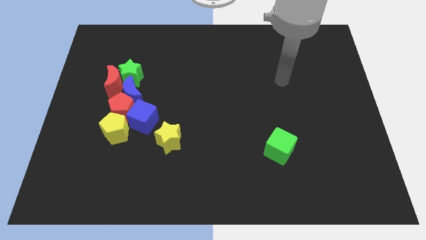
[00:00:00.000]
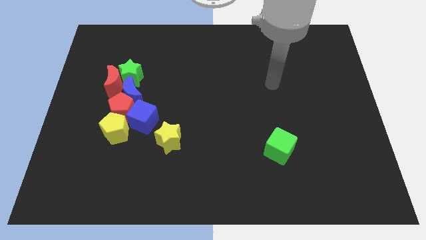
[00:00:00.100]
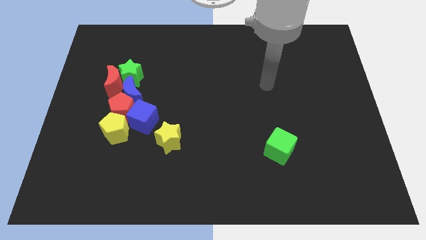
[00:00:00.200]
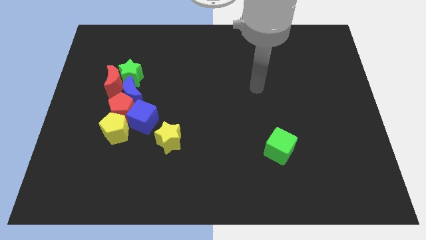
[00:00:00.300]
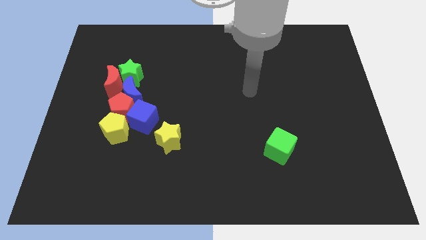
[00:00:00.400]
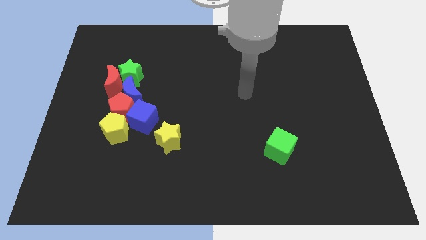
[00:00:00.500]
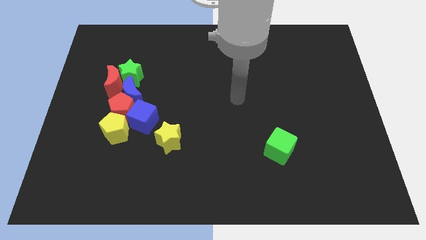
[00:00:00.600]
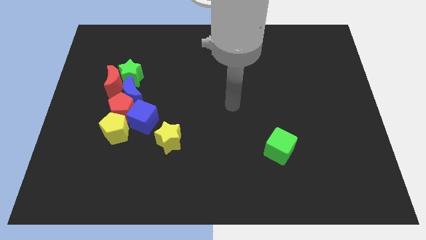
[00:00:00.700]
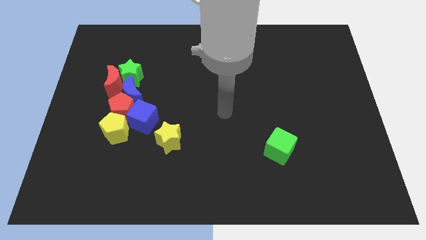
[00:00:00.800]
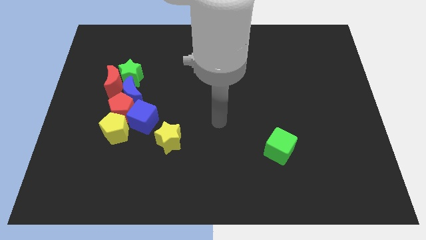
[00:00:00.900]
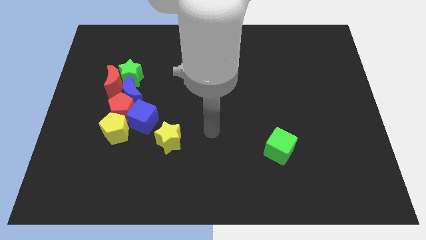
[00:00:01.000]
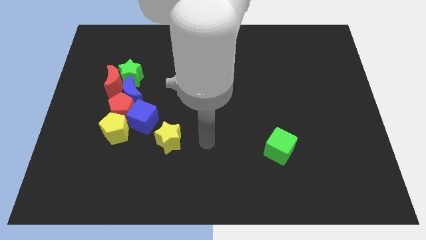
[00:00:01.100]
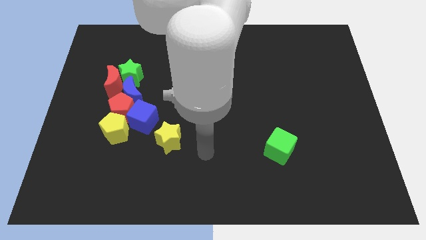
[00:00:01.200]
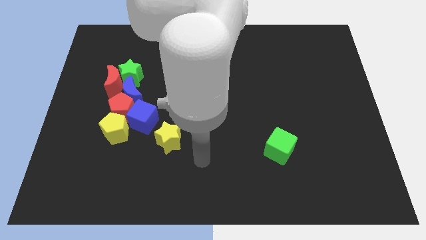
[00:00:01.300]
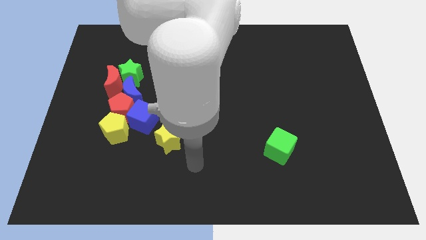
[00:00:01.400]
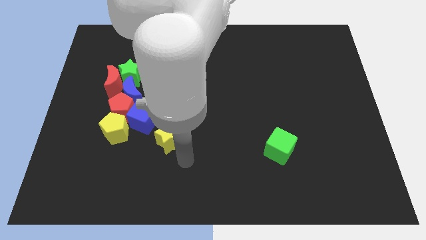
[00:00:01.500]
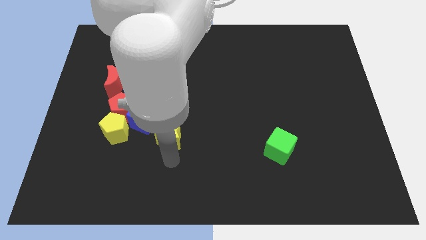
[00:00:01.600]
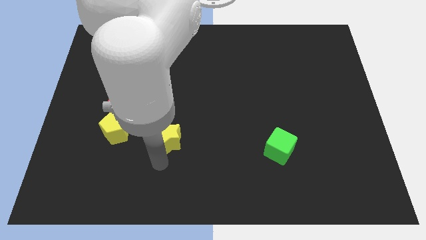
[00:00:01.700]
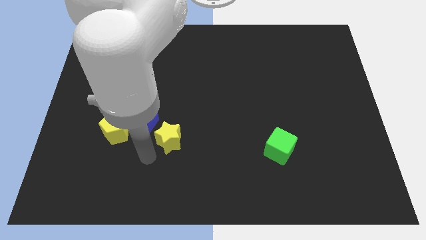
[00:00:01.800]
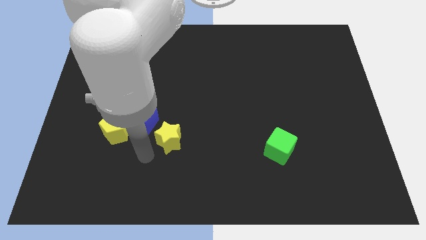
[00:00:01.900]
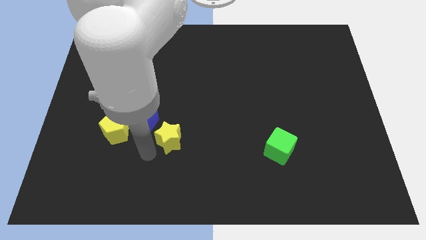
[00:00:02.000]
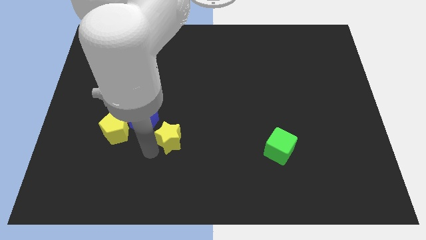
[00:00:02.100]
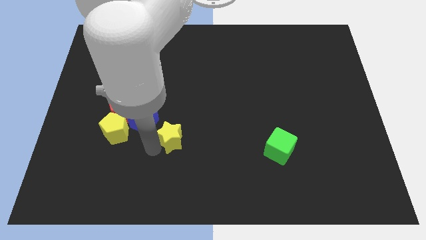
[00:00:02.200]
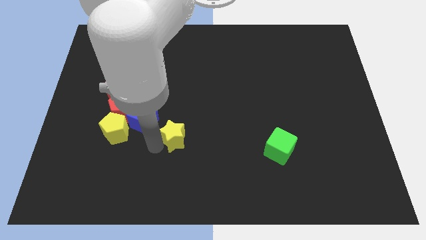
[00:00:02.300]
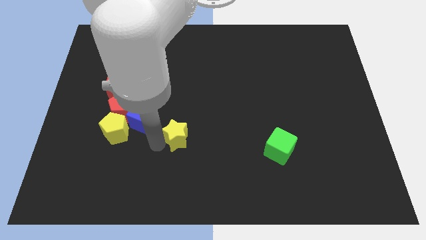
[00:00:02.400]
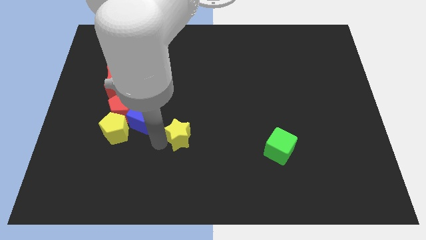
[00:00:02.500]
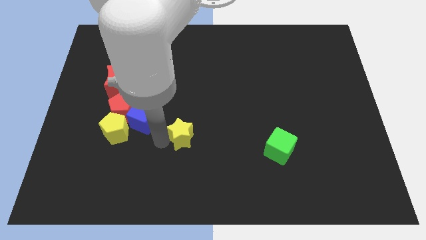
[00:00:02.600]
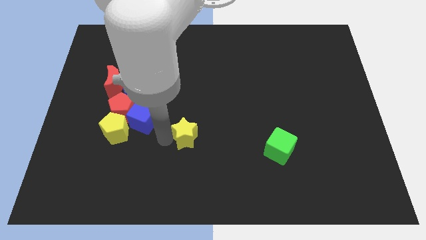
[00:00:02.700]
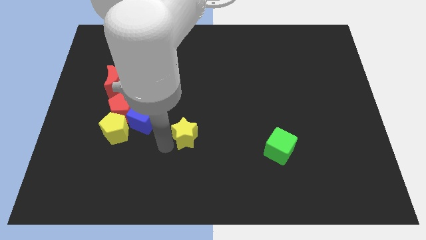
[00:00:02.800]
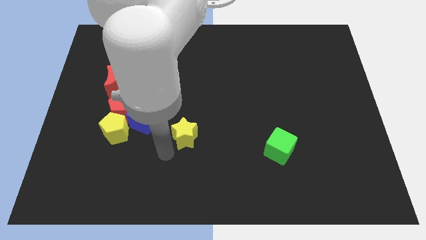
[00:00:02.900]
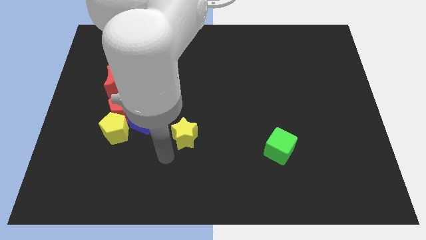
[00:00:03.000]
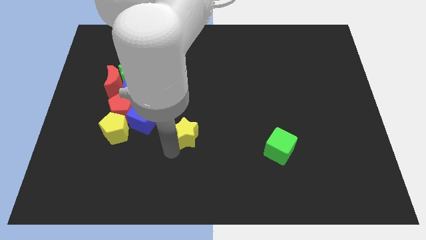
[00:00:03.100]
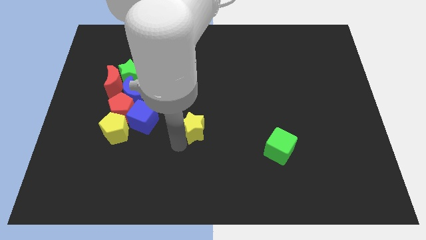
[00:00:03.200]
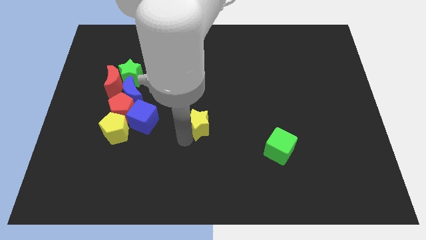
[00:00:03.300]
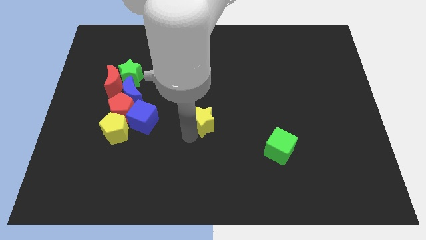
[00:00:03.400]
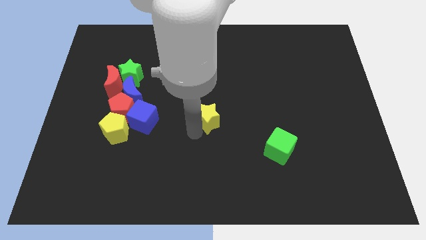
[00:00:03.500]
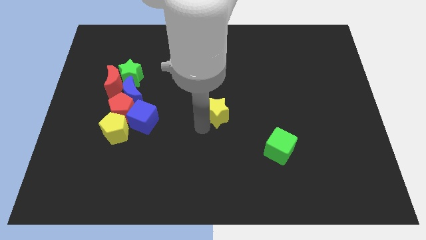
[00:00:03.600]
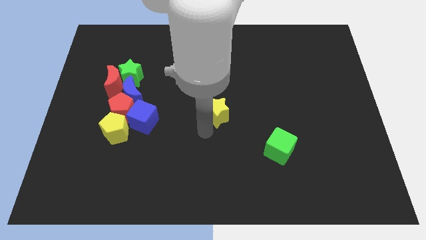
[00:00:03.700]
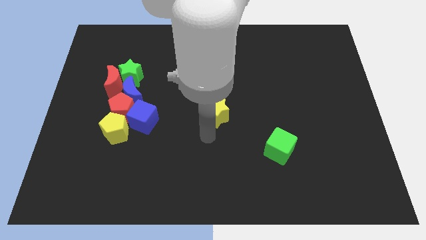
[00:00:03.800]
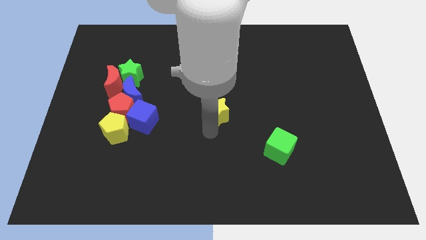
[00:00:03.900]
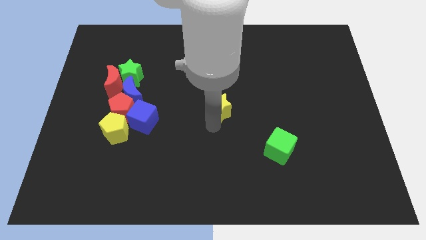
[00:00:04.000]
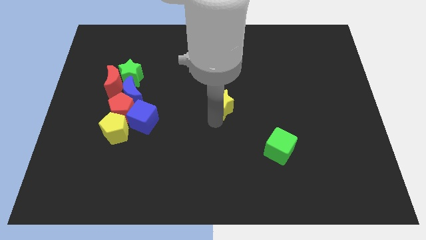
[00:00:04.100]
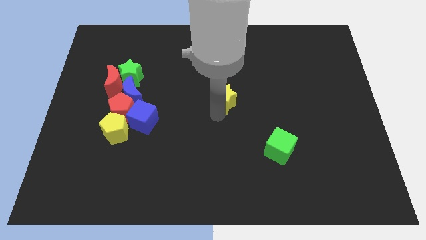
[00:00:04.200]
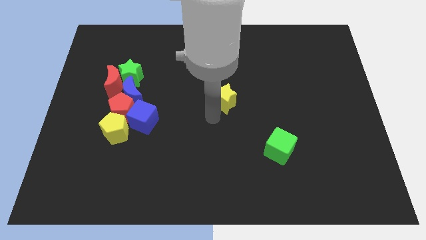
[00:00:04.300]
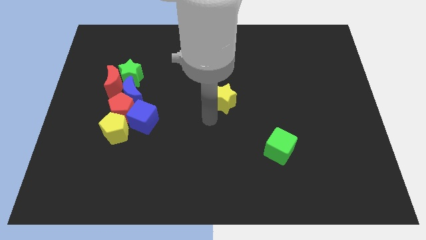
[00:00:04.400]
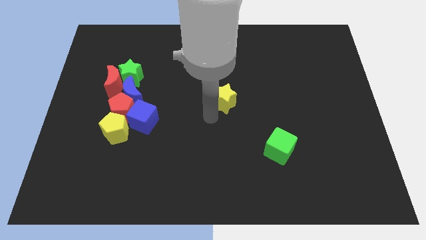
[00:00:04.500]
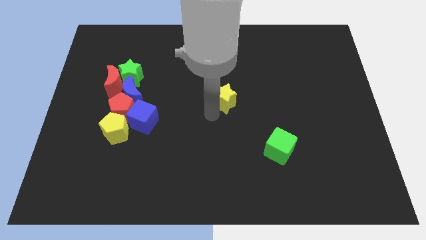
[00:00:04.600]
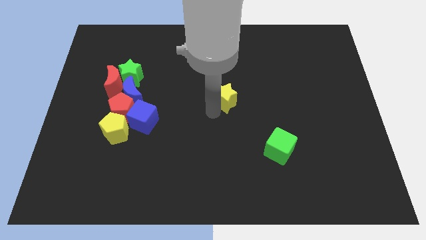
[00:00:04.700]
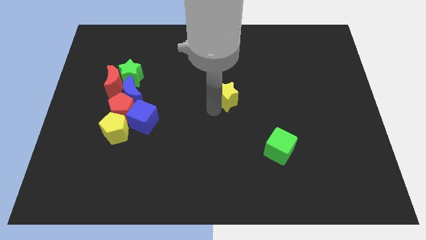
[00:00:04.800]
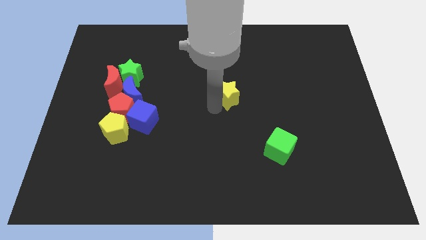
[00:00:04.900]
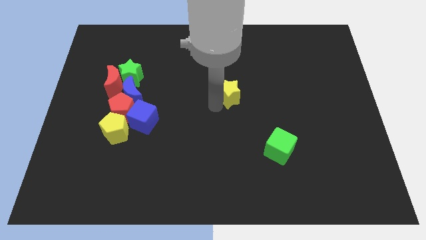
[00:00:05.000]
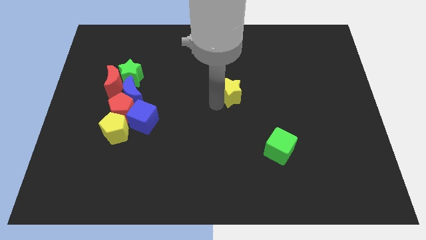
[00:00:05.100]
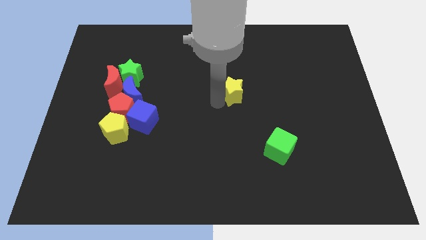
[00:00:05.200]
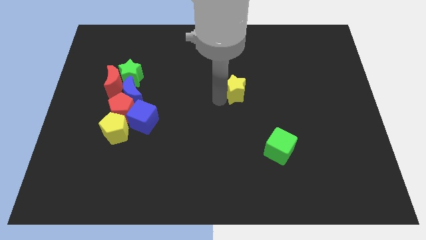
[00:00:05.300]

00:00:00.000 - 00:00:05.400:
move the yellow star up and right diagonally

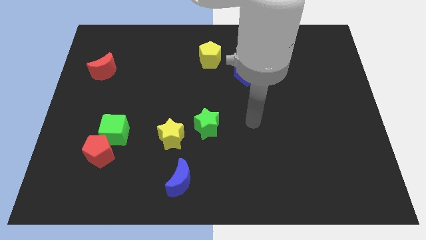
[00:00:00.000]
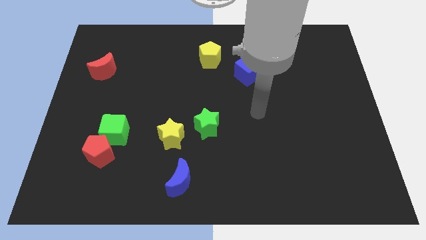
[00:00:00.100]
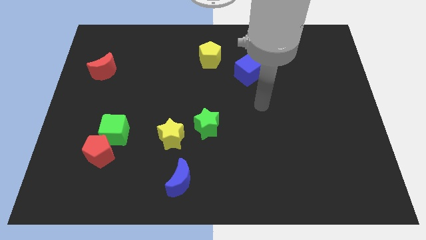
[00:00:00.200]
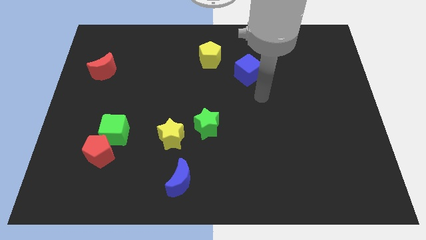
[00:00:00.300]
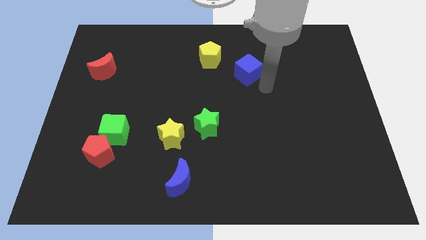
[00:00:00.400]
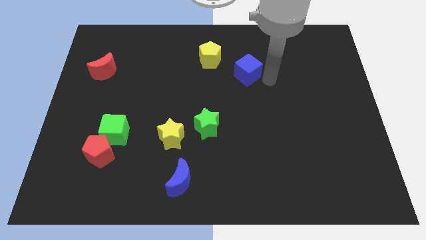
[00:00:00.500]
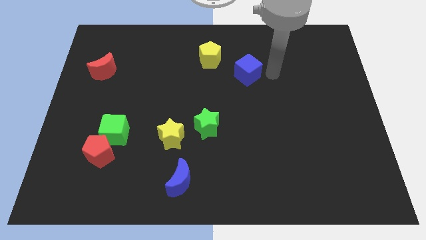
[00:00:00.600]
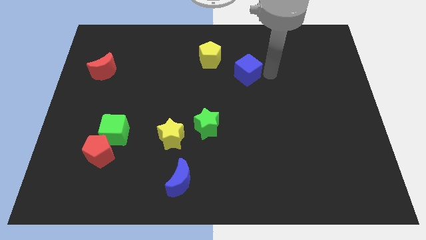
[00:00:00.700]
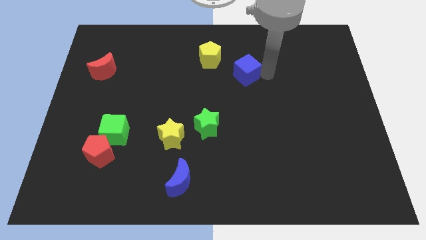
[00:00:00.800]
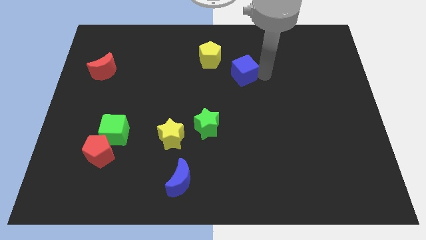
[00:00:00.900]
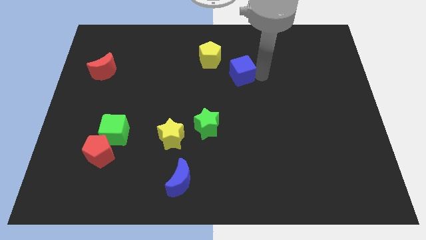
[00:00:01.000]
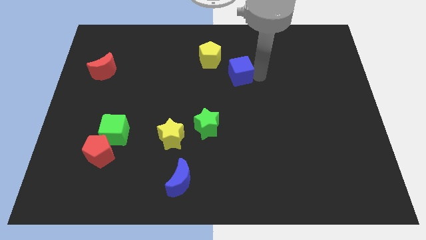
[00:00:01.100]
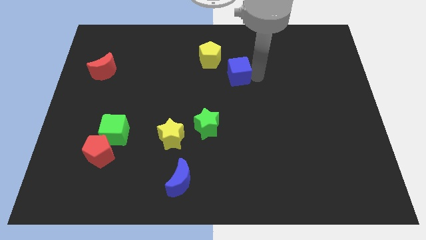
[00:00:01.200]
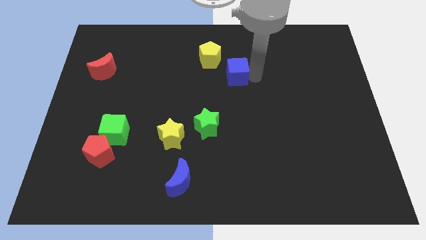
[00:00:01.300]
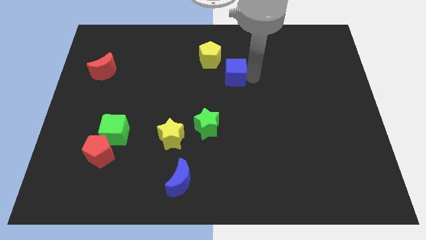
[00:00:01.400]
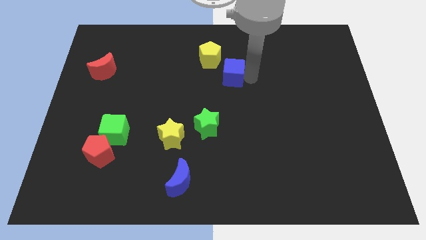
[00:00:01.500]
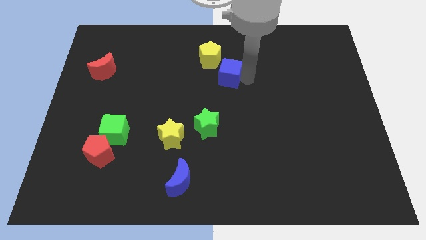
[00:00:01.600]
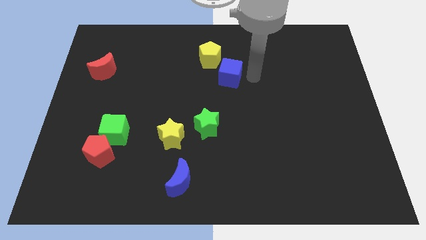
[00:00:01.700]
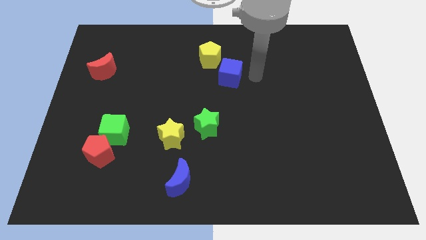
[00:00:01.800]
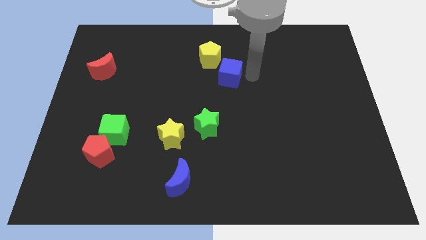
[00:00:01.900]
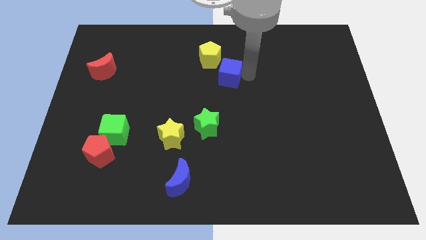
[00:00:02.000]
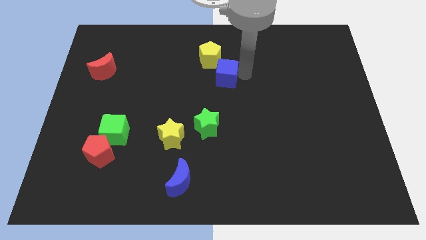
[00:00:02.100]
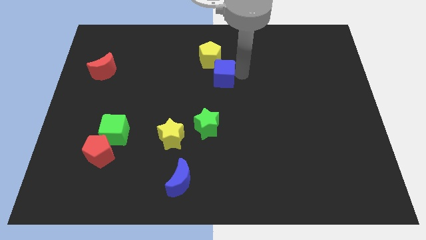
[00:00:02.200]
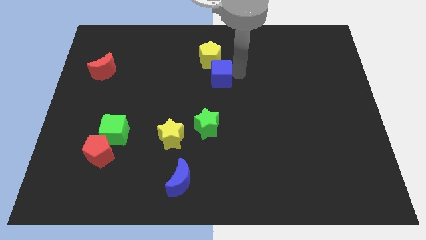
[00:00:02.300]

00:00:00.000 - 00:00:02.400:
slide the blue cube slightly to the left

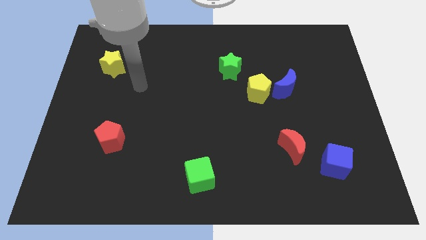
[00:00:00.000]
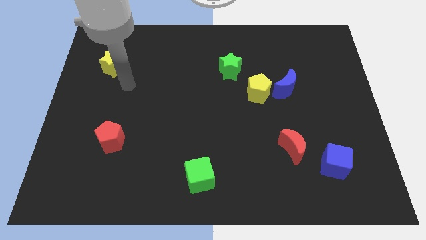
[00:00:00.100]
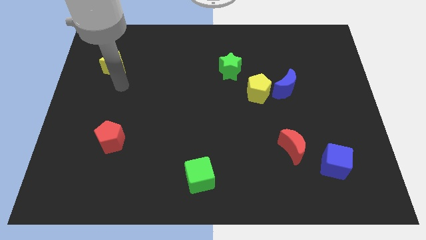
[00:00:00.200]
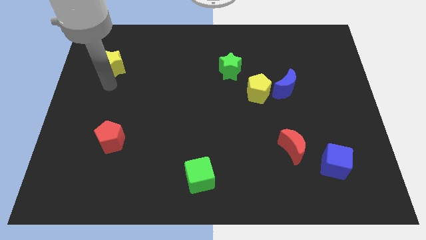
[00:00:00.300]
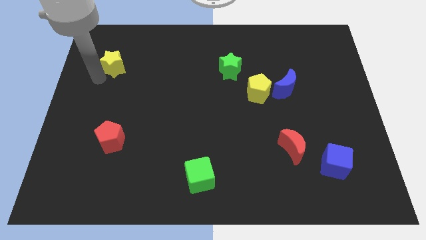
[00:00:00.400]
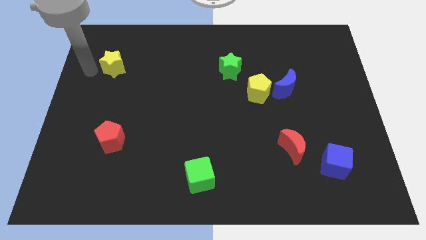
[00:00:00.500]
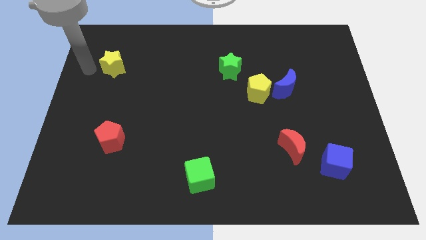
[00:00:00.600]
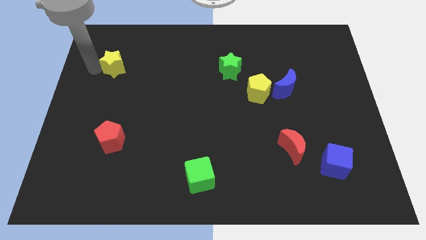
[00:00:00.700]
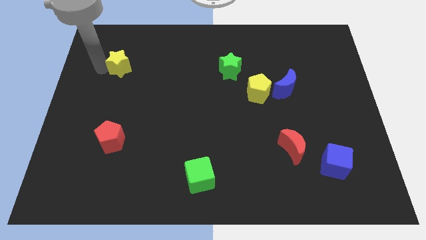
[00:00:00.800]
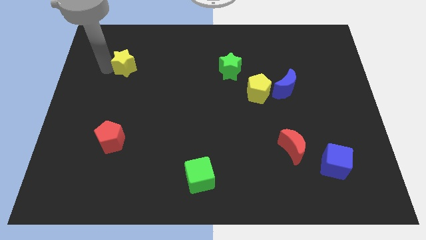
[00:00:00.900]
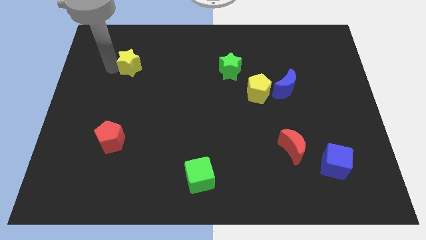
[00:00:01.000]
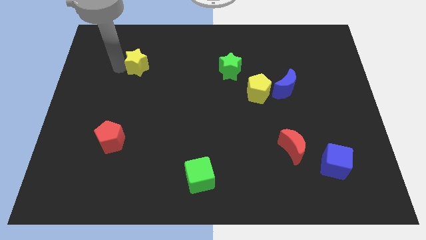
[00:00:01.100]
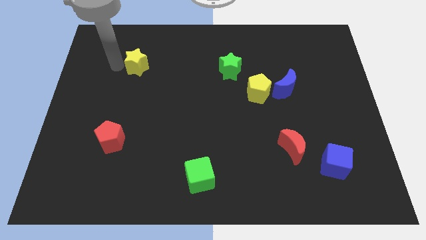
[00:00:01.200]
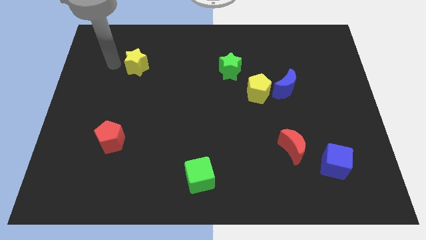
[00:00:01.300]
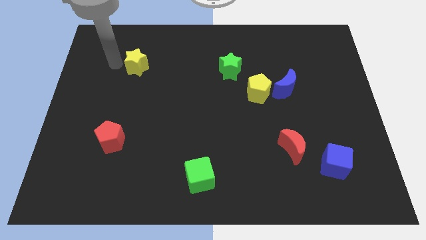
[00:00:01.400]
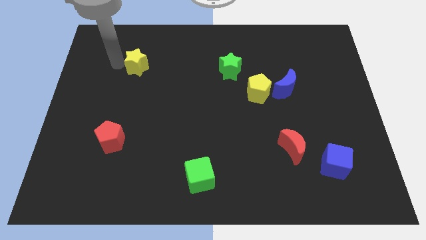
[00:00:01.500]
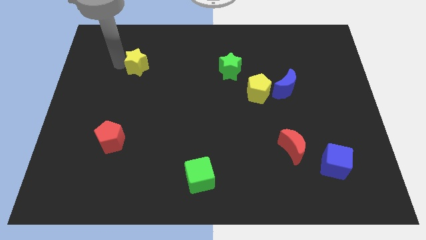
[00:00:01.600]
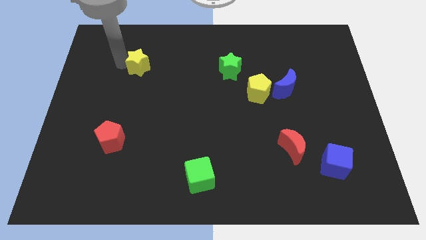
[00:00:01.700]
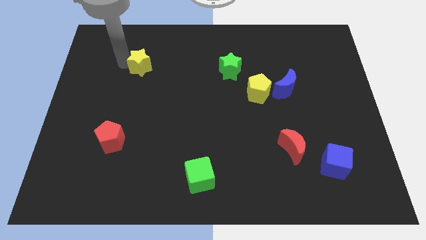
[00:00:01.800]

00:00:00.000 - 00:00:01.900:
push the yellow star slightly right
